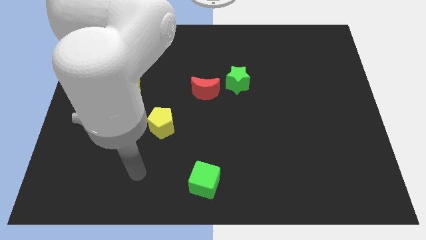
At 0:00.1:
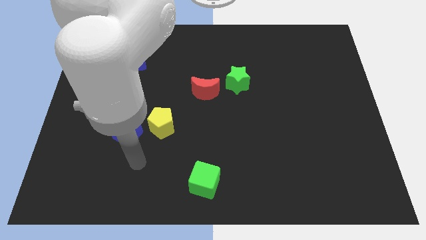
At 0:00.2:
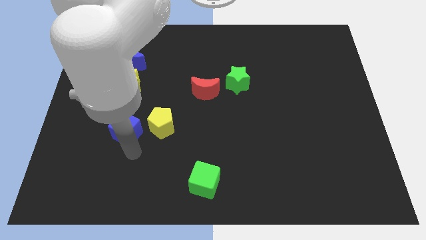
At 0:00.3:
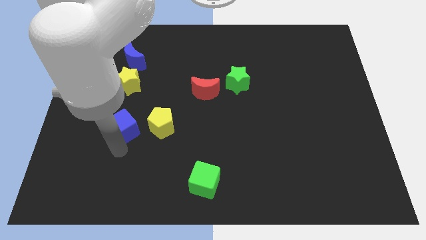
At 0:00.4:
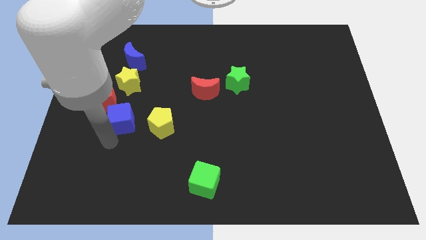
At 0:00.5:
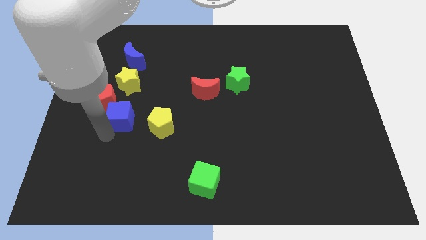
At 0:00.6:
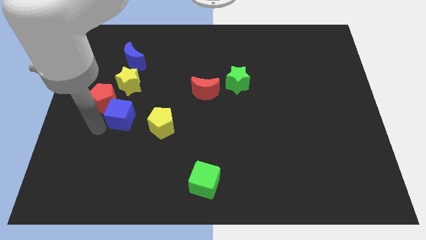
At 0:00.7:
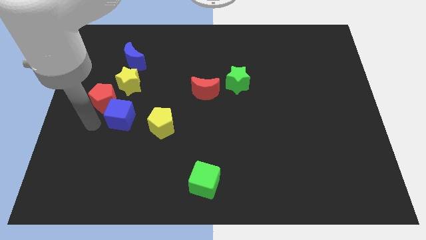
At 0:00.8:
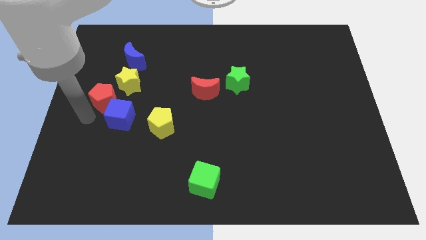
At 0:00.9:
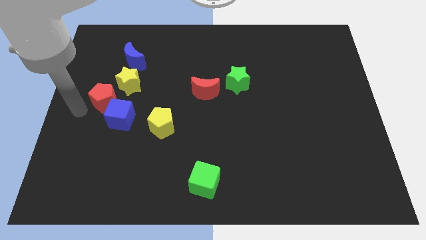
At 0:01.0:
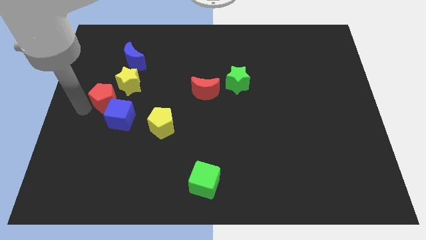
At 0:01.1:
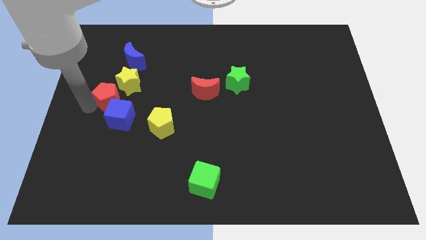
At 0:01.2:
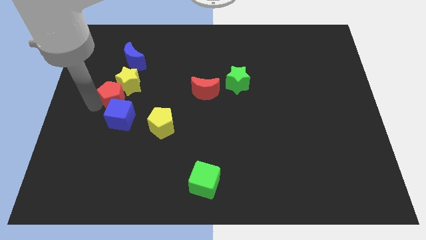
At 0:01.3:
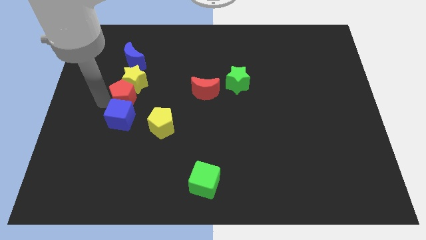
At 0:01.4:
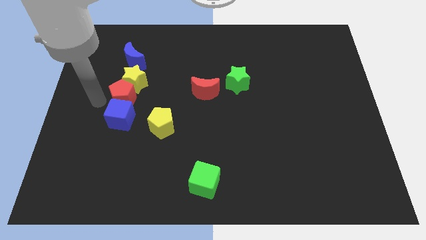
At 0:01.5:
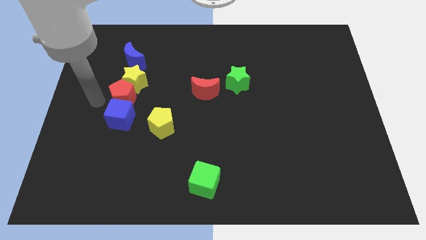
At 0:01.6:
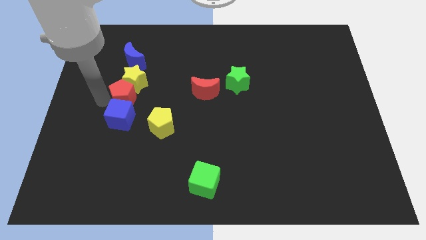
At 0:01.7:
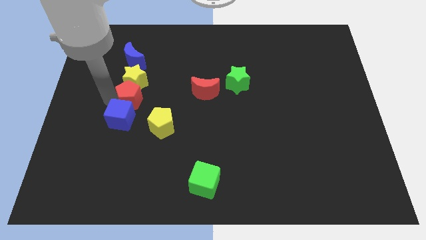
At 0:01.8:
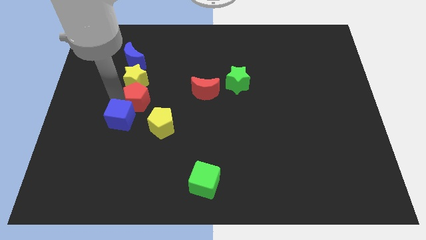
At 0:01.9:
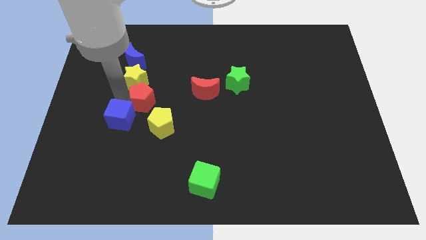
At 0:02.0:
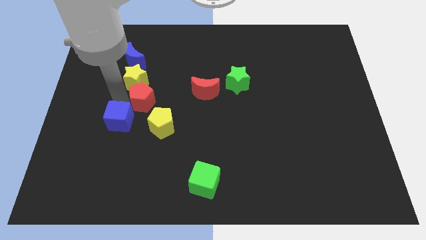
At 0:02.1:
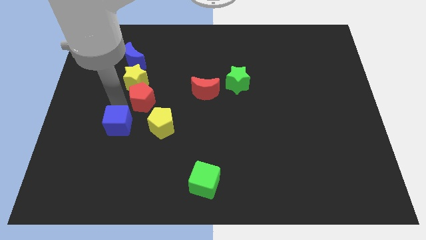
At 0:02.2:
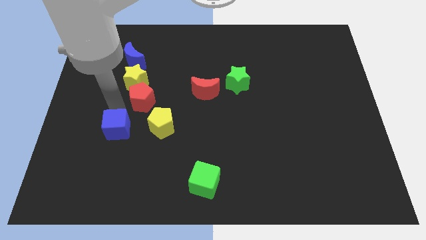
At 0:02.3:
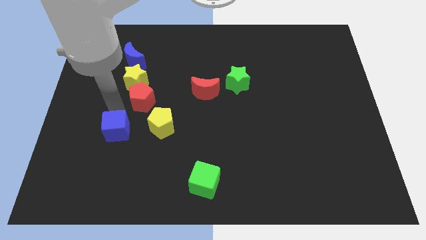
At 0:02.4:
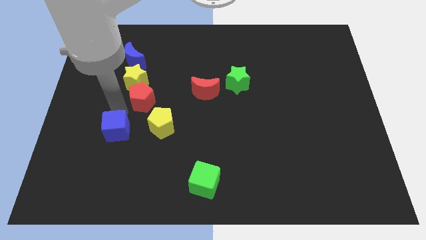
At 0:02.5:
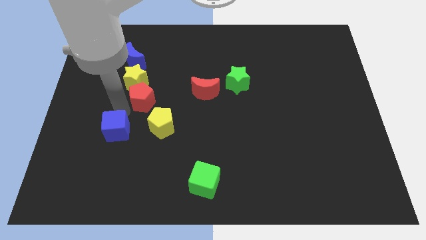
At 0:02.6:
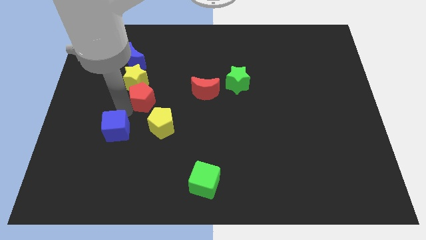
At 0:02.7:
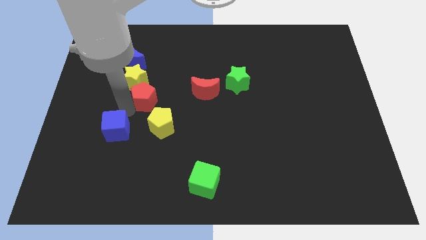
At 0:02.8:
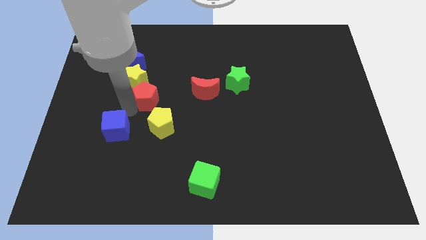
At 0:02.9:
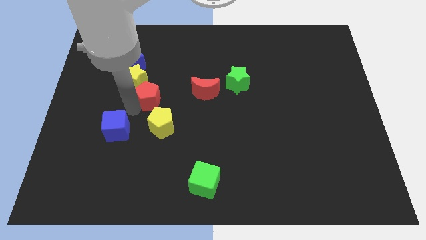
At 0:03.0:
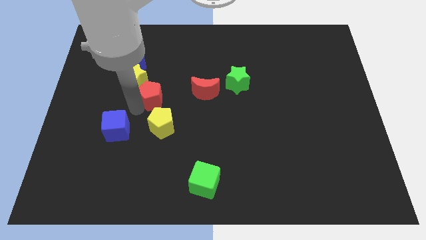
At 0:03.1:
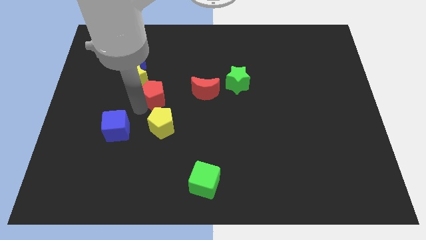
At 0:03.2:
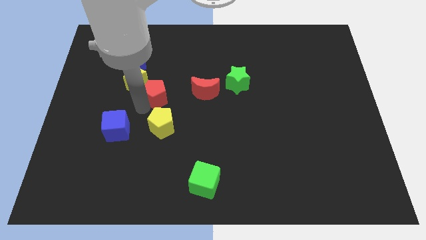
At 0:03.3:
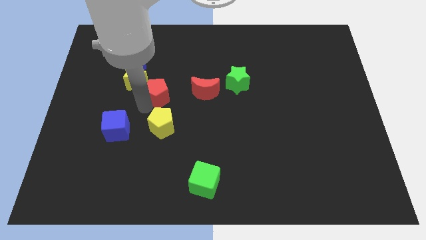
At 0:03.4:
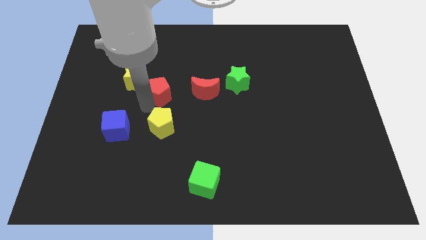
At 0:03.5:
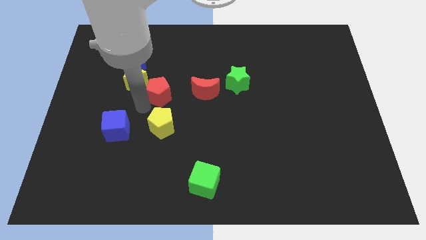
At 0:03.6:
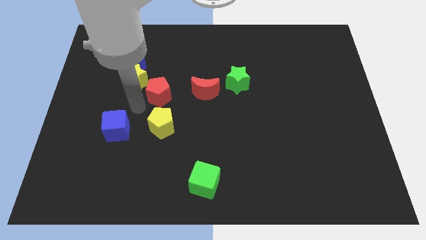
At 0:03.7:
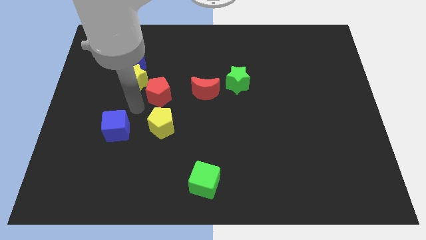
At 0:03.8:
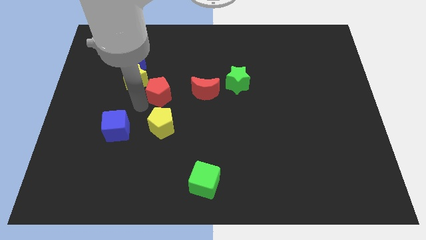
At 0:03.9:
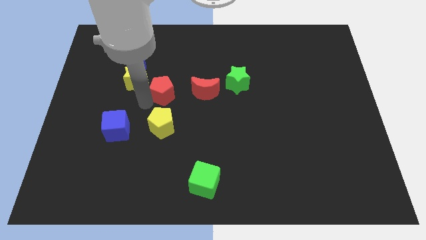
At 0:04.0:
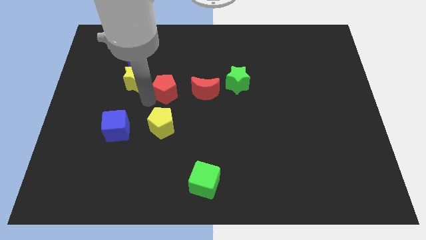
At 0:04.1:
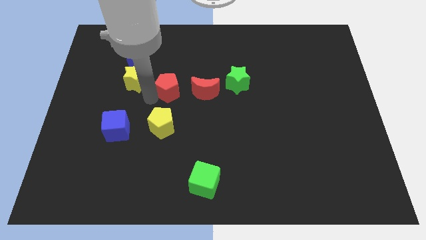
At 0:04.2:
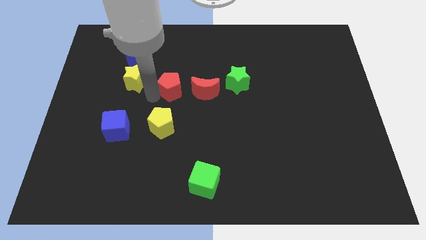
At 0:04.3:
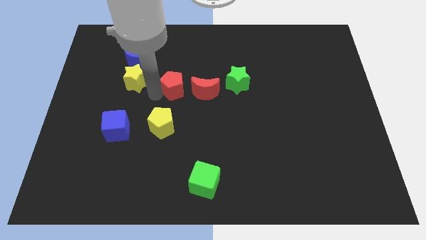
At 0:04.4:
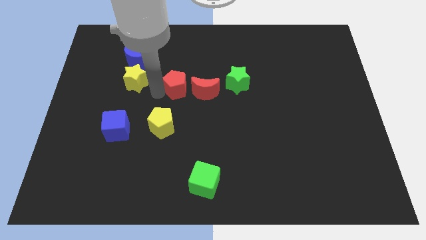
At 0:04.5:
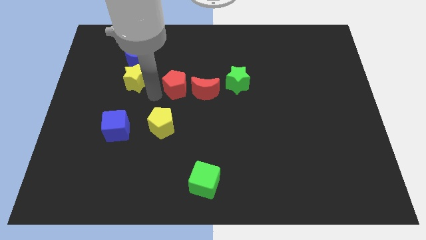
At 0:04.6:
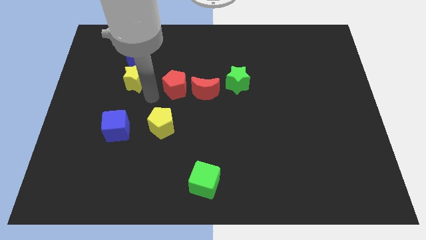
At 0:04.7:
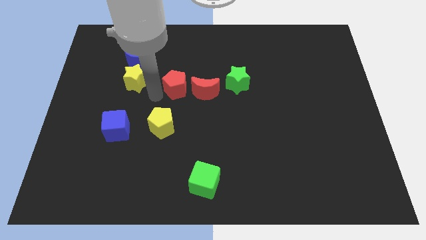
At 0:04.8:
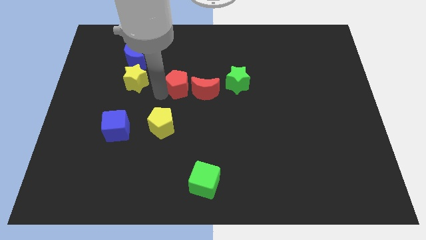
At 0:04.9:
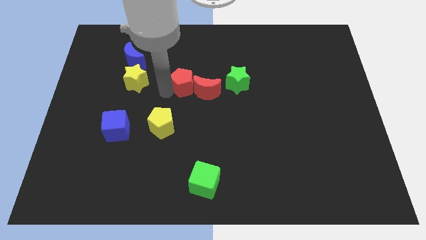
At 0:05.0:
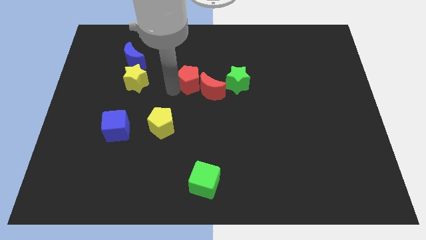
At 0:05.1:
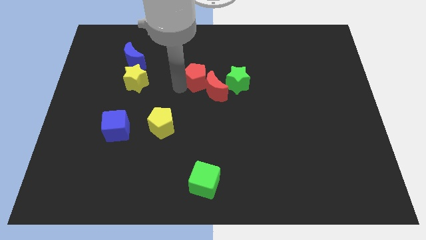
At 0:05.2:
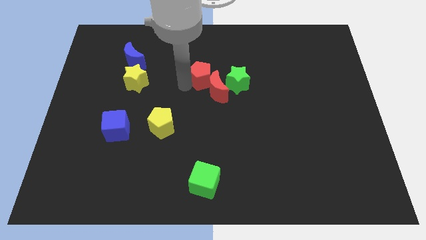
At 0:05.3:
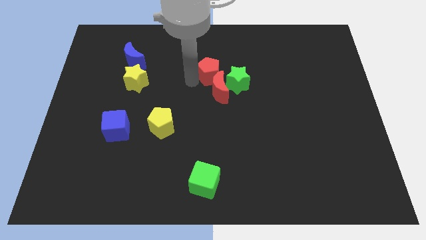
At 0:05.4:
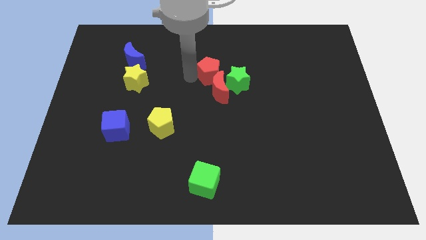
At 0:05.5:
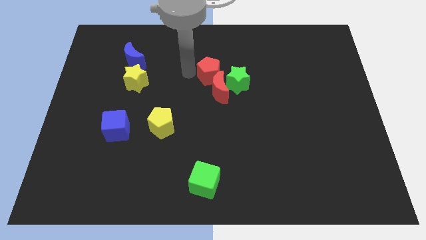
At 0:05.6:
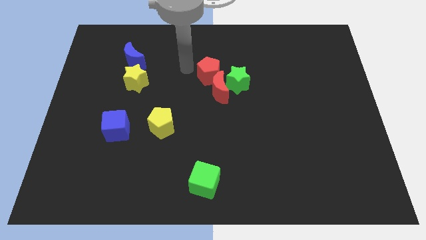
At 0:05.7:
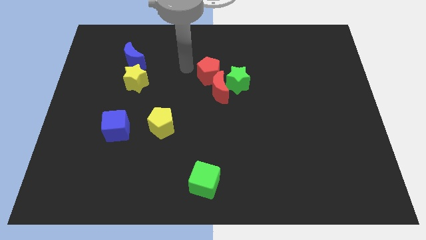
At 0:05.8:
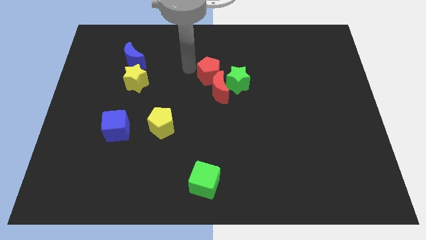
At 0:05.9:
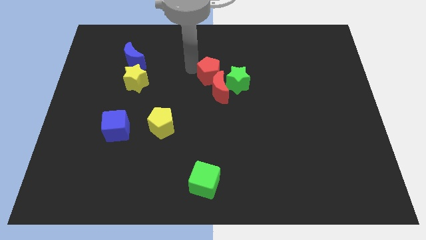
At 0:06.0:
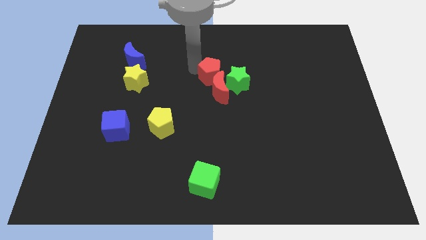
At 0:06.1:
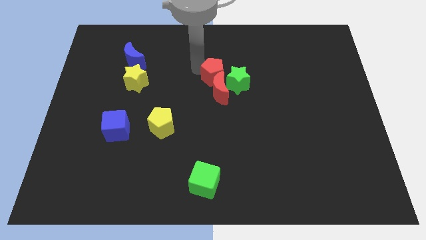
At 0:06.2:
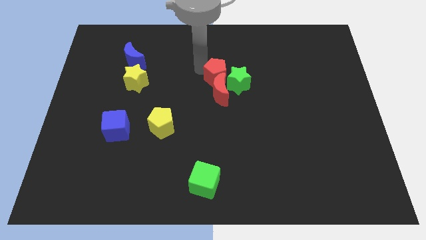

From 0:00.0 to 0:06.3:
put the red pentagon to the green star
